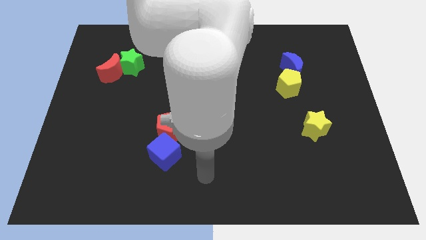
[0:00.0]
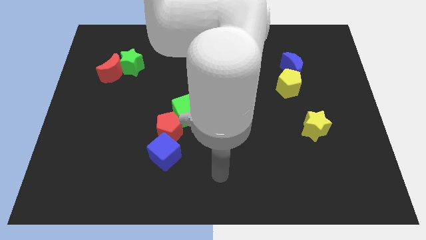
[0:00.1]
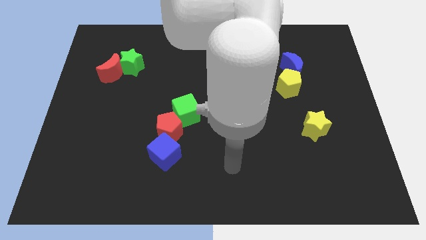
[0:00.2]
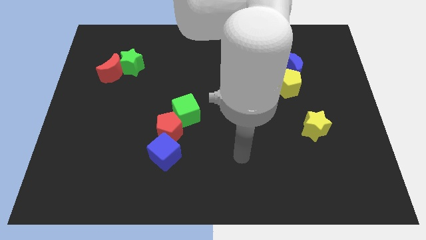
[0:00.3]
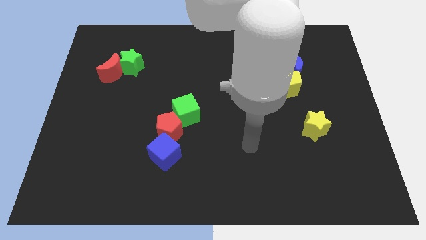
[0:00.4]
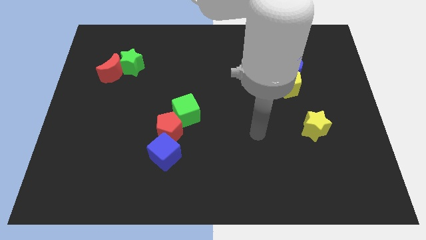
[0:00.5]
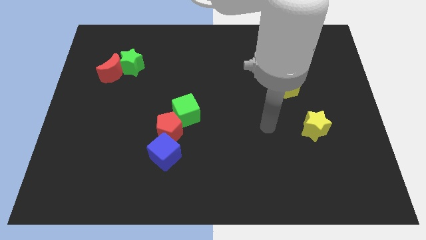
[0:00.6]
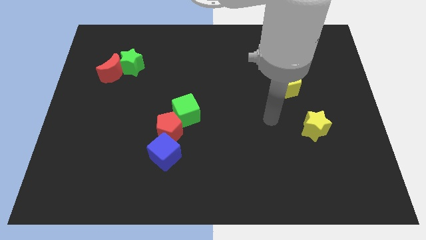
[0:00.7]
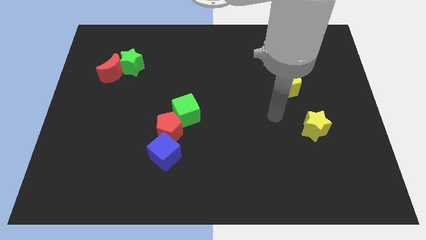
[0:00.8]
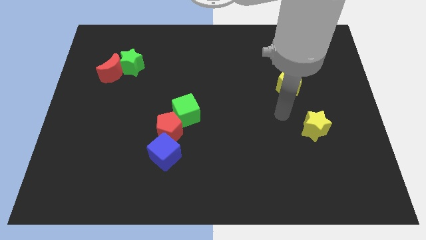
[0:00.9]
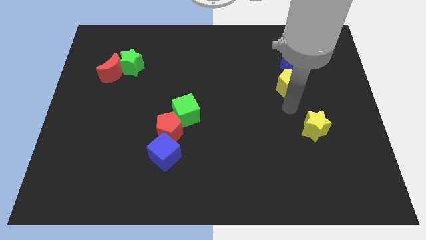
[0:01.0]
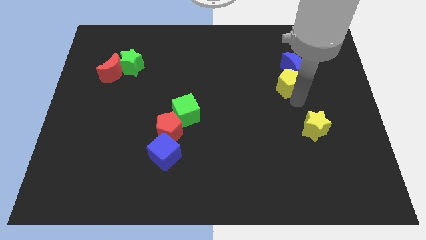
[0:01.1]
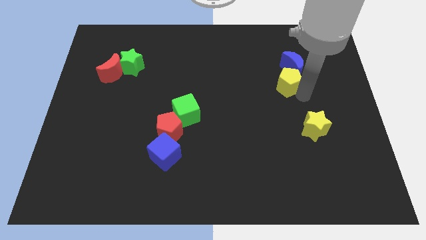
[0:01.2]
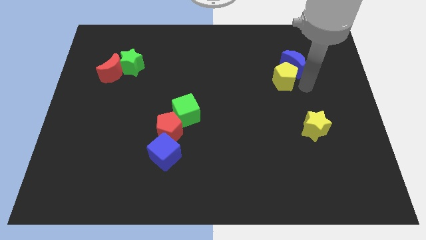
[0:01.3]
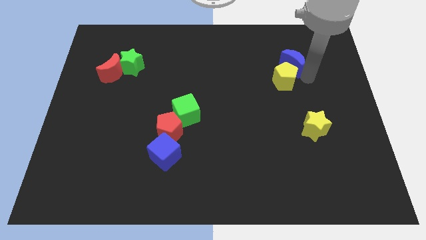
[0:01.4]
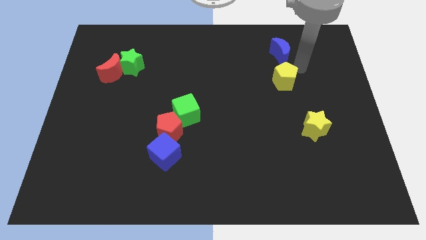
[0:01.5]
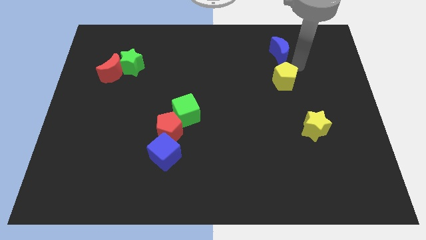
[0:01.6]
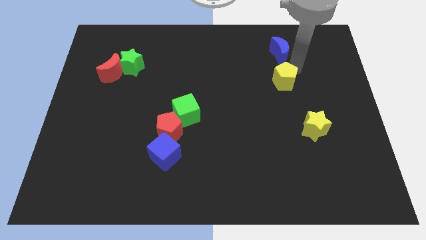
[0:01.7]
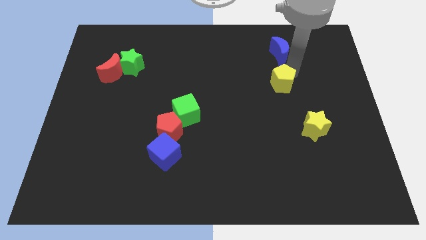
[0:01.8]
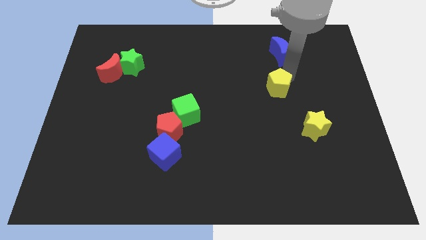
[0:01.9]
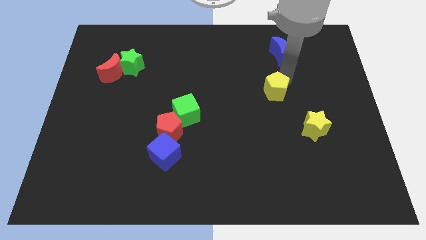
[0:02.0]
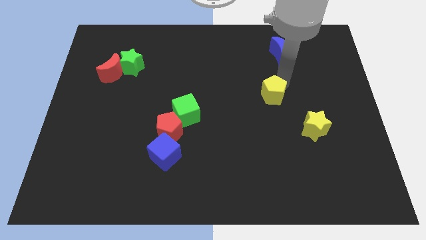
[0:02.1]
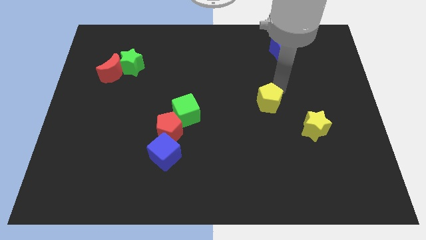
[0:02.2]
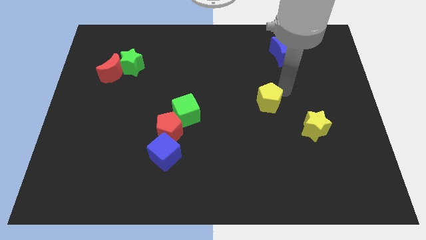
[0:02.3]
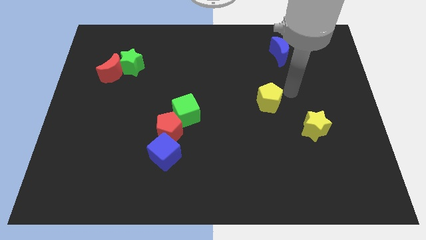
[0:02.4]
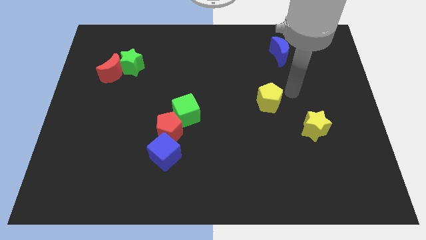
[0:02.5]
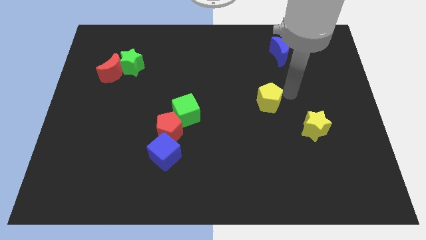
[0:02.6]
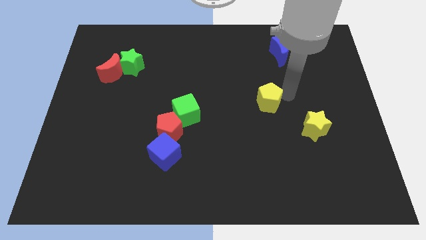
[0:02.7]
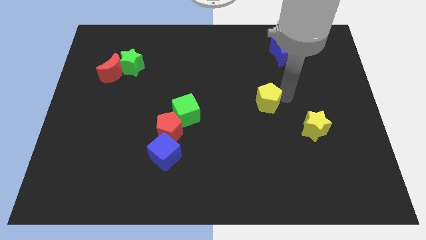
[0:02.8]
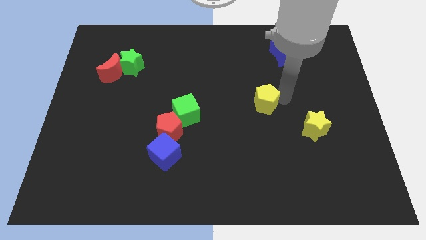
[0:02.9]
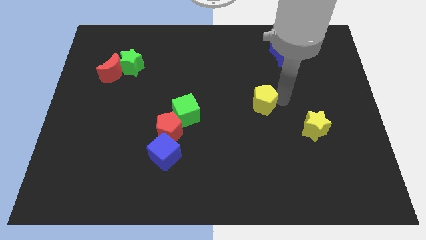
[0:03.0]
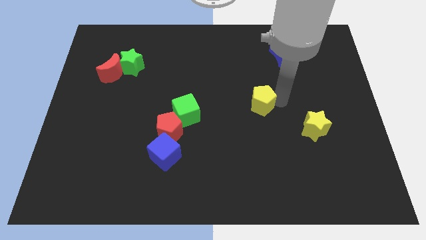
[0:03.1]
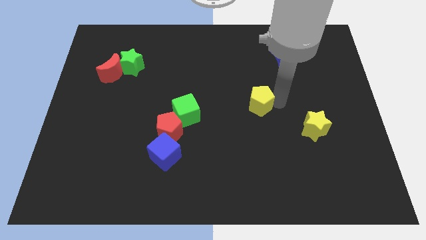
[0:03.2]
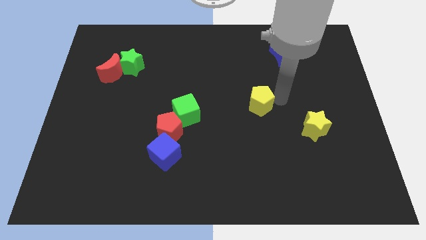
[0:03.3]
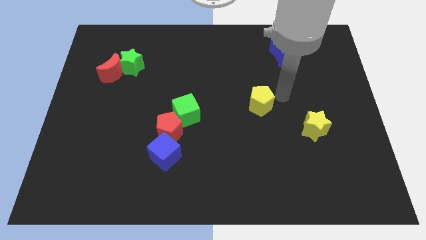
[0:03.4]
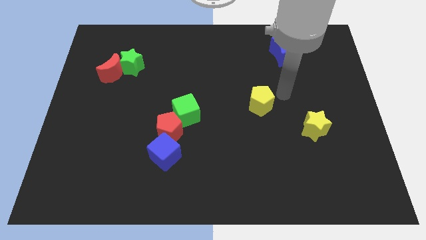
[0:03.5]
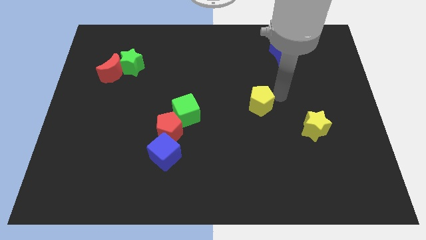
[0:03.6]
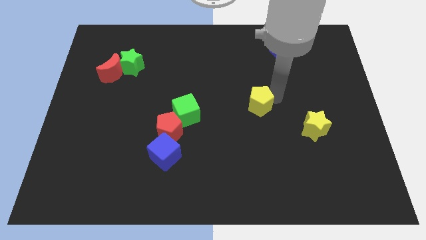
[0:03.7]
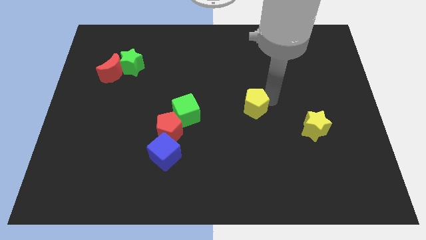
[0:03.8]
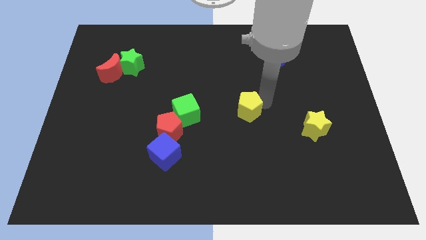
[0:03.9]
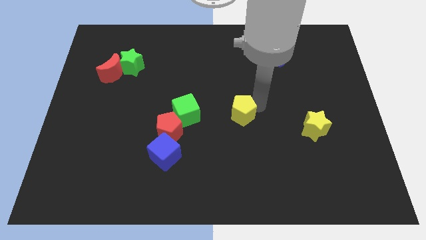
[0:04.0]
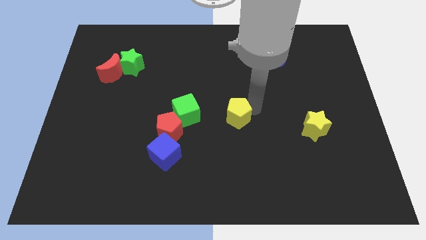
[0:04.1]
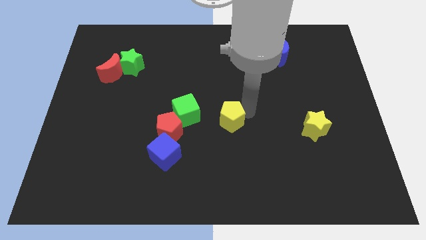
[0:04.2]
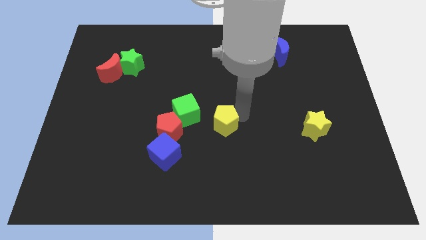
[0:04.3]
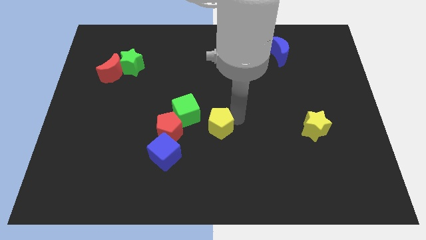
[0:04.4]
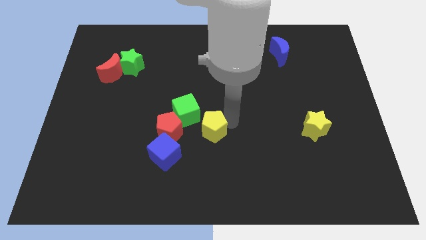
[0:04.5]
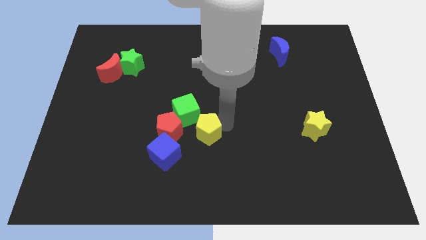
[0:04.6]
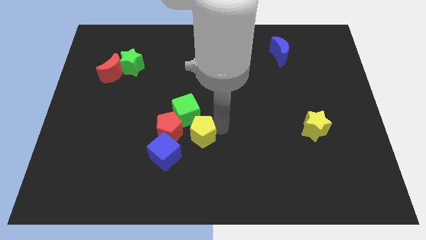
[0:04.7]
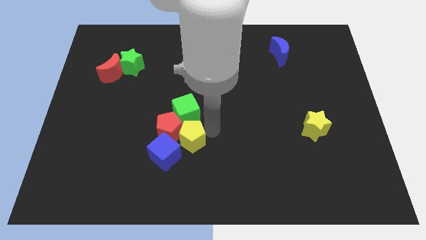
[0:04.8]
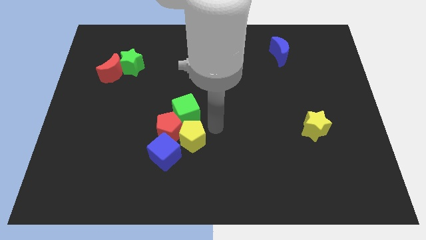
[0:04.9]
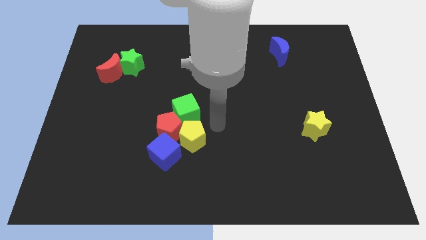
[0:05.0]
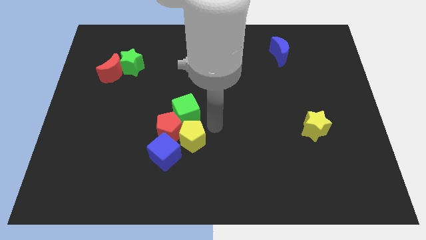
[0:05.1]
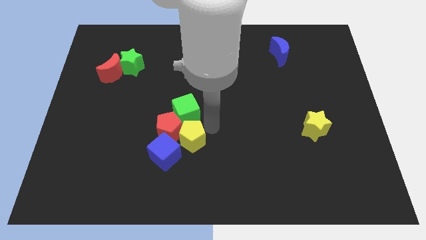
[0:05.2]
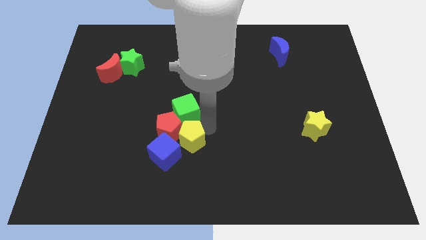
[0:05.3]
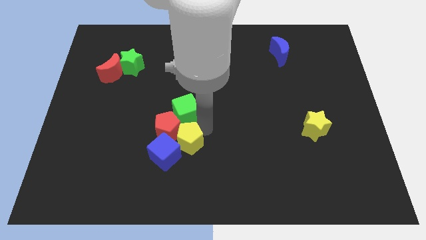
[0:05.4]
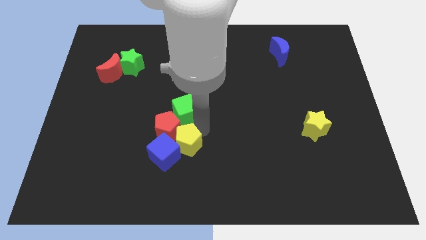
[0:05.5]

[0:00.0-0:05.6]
put the yellow pentagon to the blue cube
